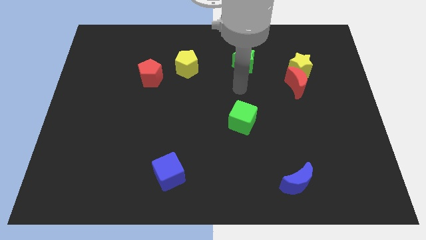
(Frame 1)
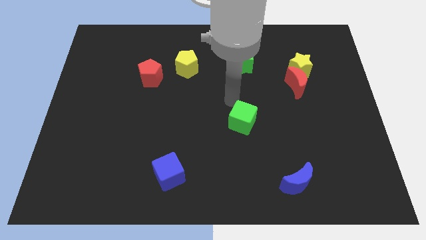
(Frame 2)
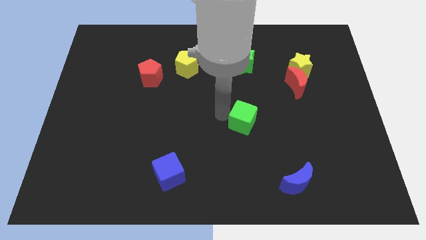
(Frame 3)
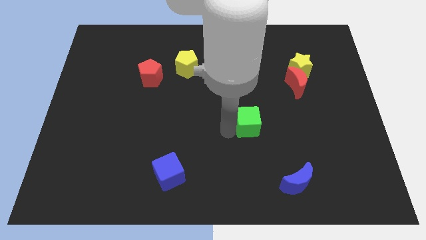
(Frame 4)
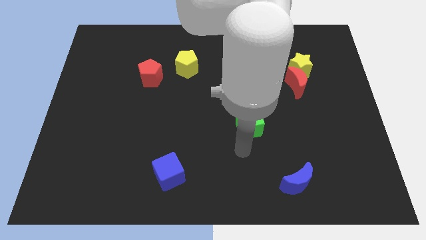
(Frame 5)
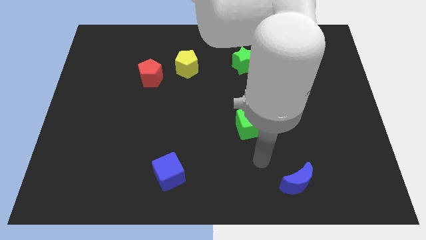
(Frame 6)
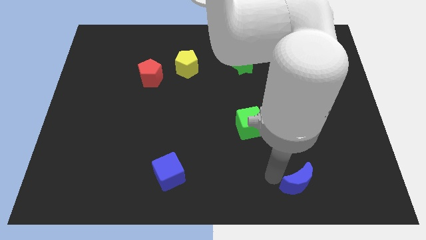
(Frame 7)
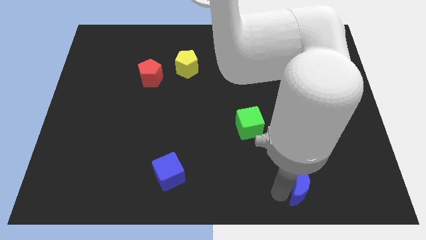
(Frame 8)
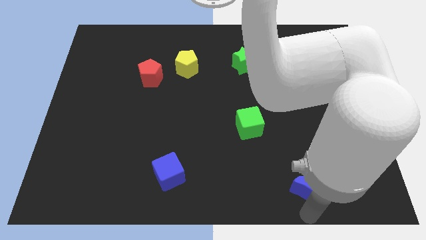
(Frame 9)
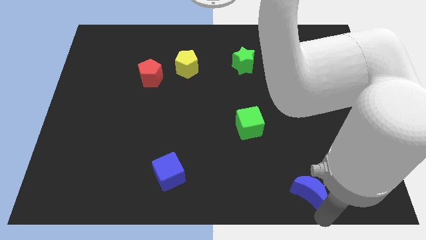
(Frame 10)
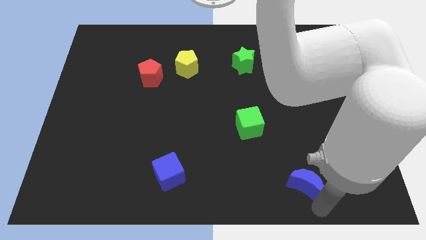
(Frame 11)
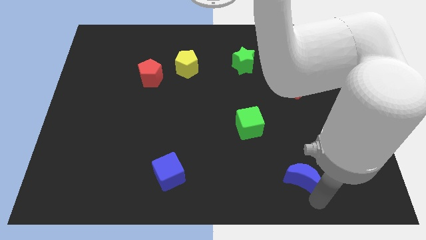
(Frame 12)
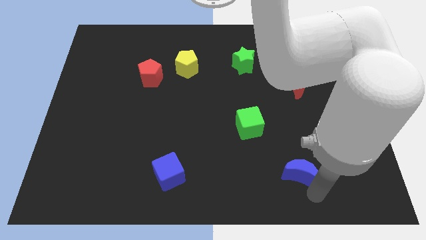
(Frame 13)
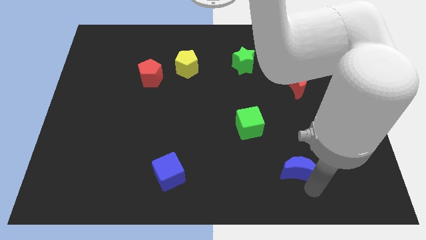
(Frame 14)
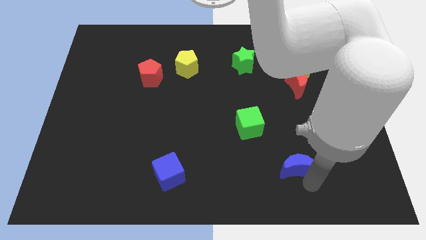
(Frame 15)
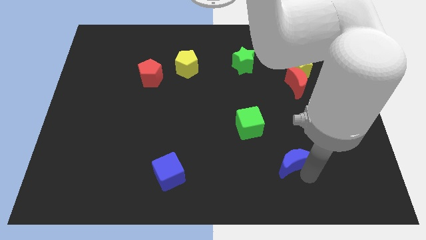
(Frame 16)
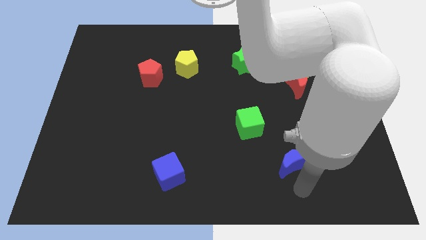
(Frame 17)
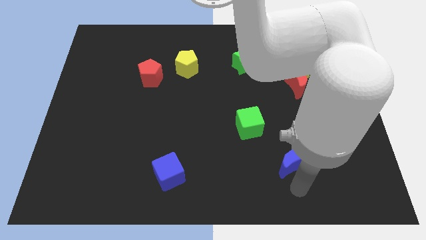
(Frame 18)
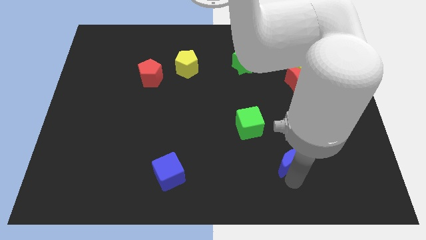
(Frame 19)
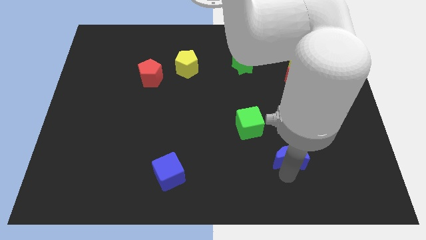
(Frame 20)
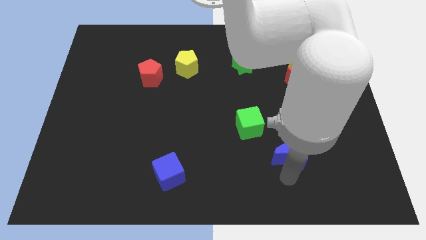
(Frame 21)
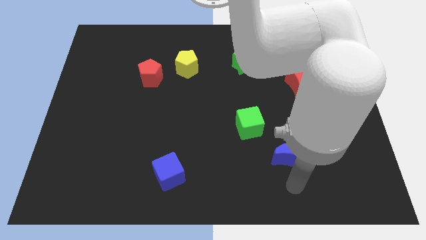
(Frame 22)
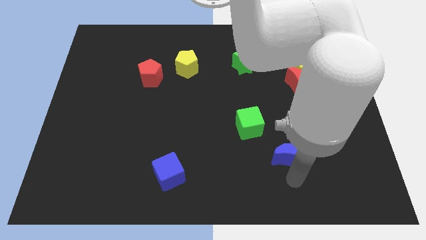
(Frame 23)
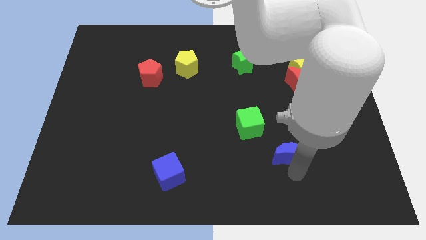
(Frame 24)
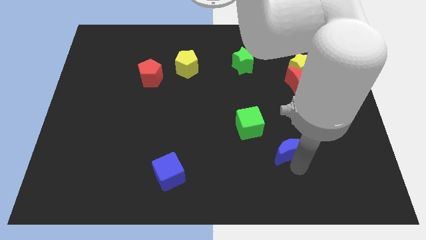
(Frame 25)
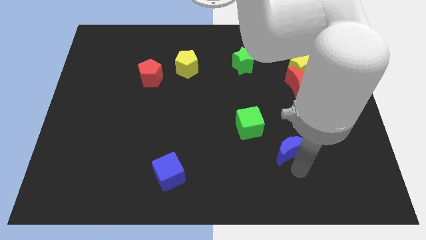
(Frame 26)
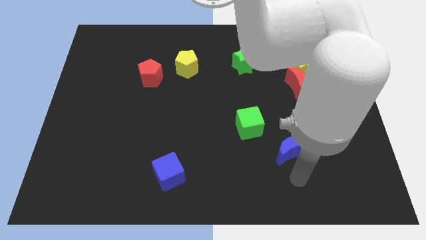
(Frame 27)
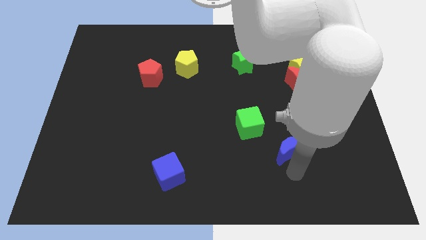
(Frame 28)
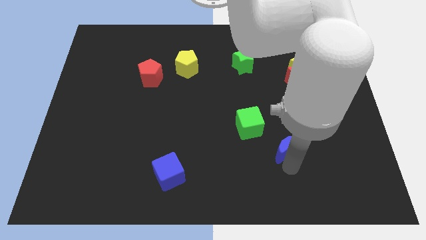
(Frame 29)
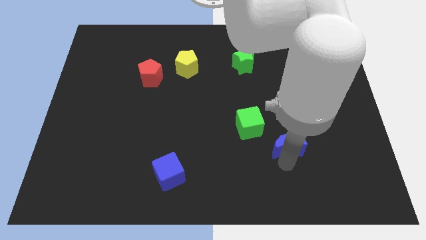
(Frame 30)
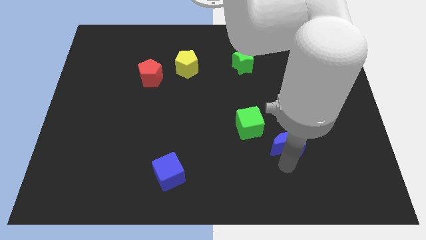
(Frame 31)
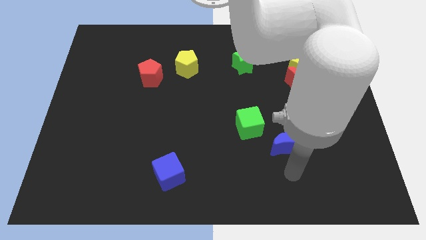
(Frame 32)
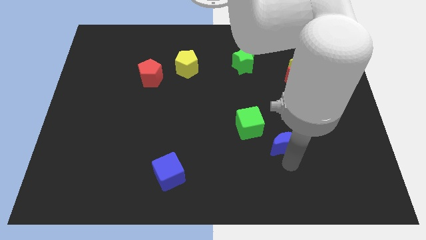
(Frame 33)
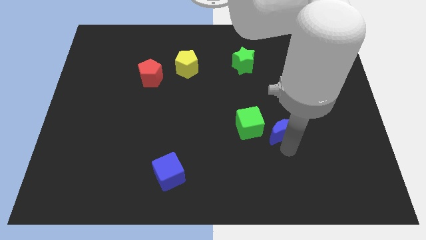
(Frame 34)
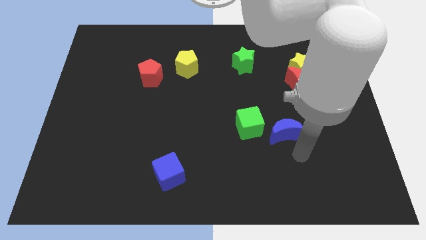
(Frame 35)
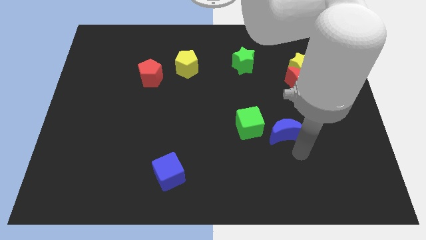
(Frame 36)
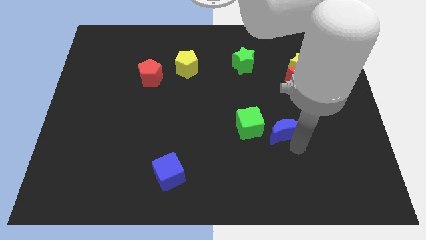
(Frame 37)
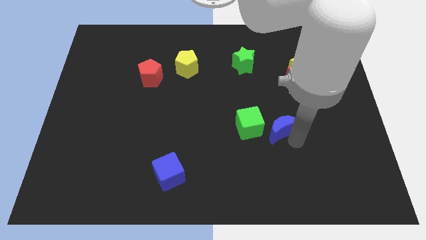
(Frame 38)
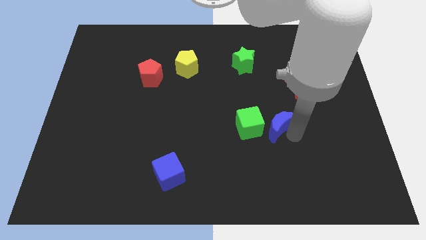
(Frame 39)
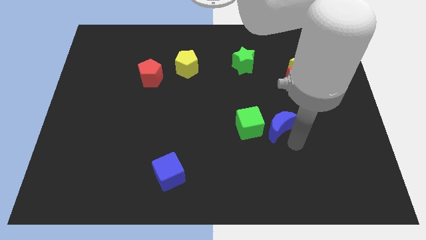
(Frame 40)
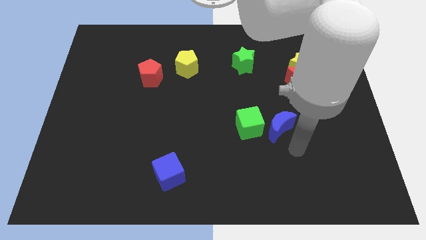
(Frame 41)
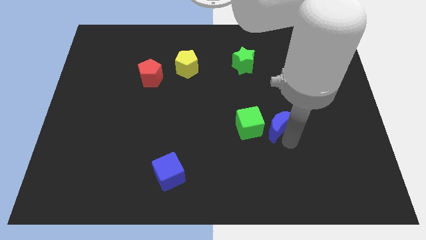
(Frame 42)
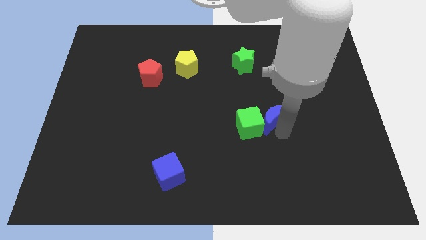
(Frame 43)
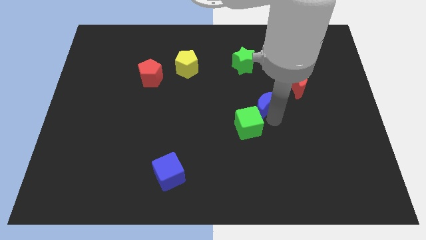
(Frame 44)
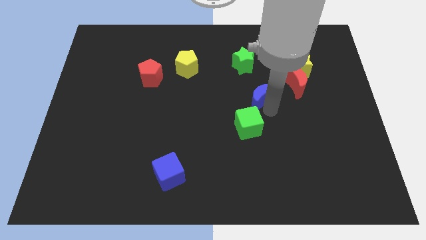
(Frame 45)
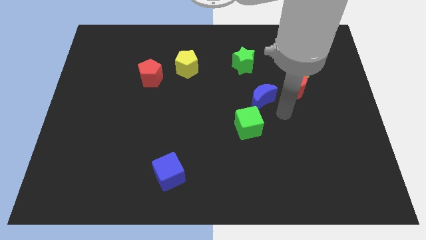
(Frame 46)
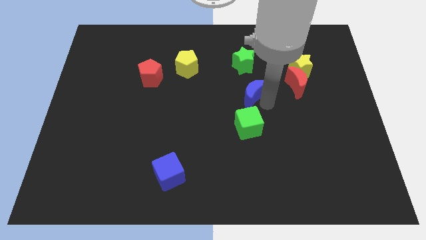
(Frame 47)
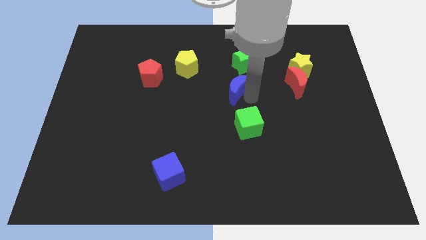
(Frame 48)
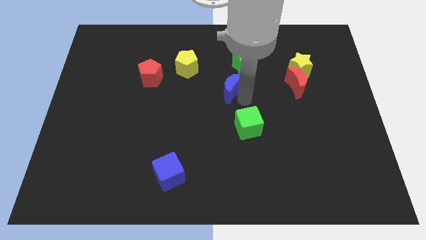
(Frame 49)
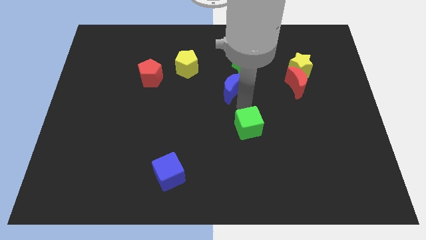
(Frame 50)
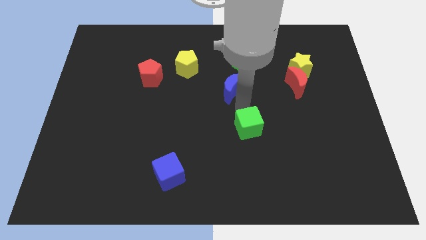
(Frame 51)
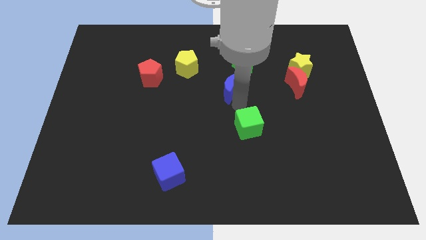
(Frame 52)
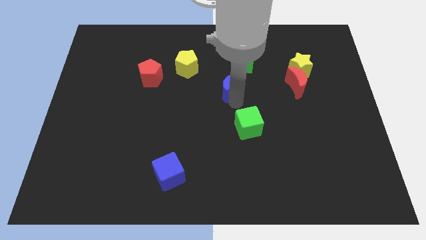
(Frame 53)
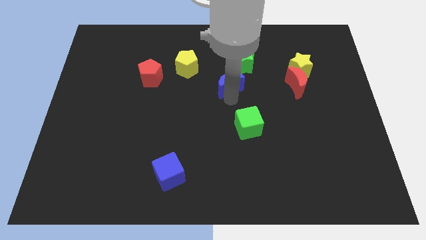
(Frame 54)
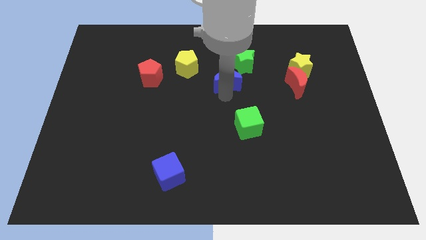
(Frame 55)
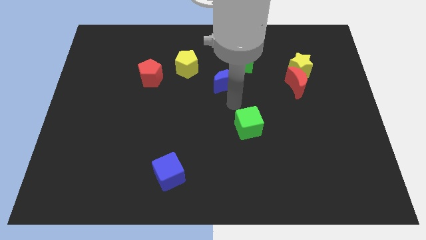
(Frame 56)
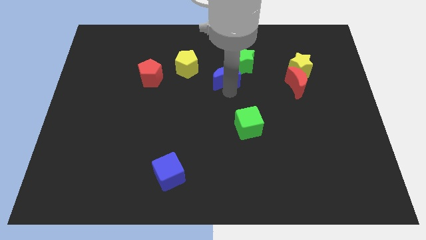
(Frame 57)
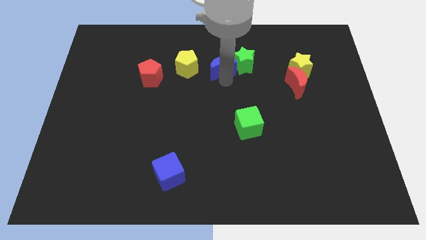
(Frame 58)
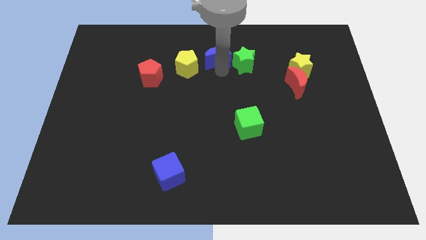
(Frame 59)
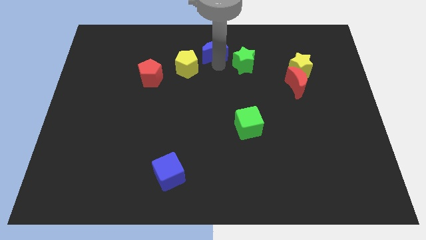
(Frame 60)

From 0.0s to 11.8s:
push the blue moon to the towards your base
